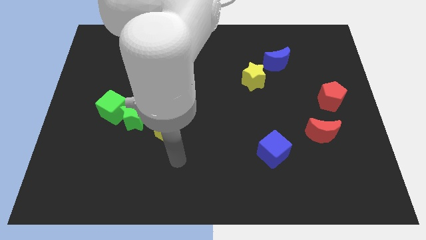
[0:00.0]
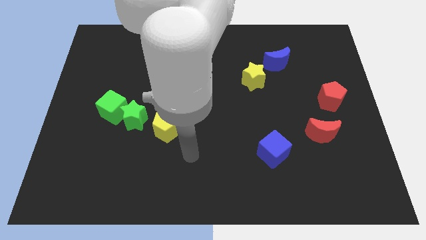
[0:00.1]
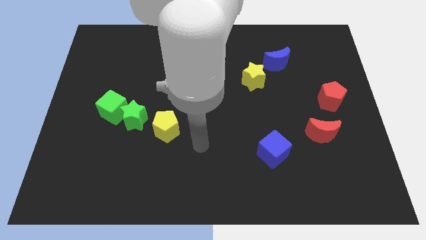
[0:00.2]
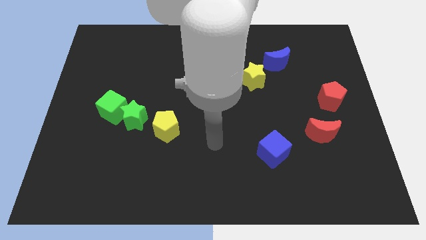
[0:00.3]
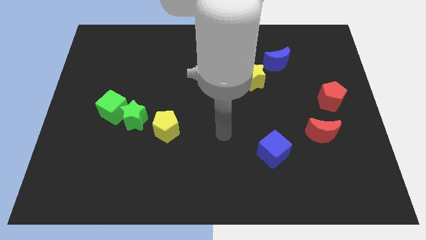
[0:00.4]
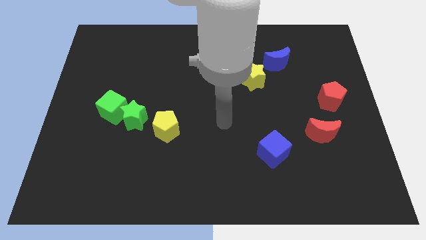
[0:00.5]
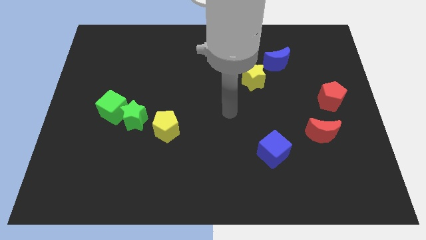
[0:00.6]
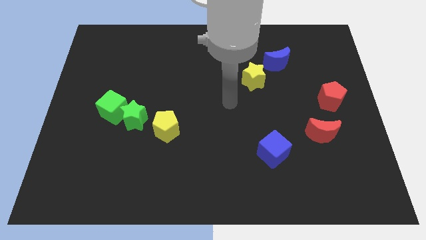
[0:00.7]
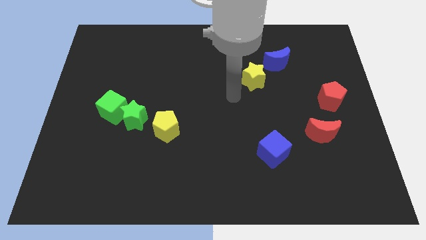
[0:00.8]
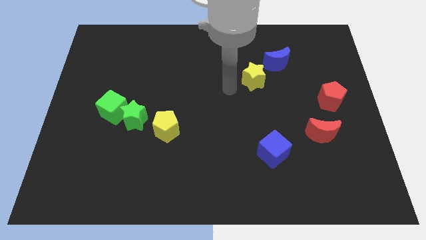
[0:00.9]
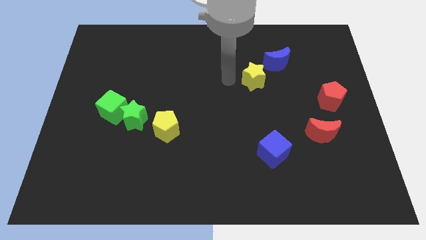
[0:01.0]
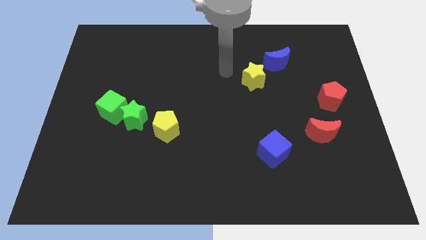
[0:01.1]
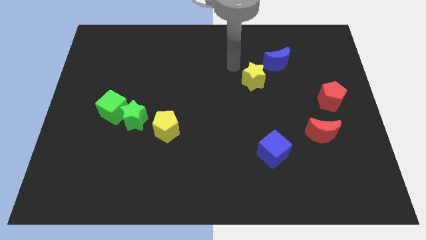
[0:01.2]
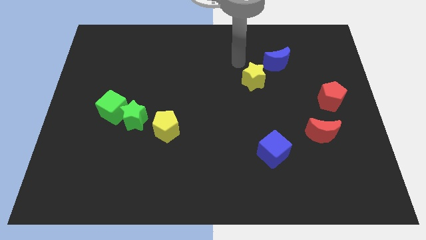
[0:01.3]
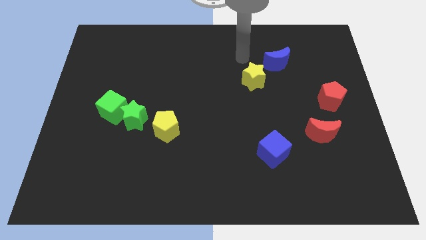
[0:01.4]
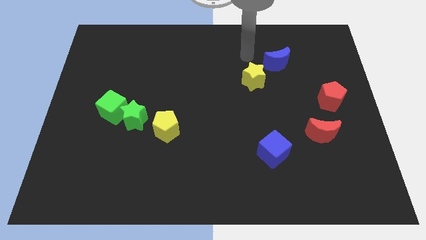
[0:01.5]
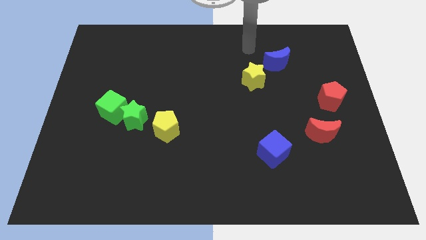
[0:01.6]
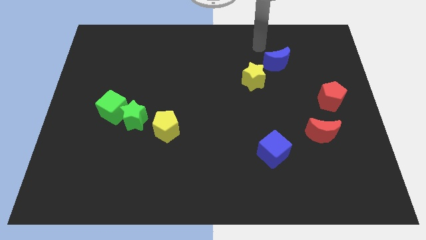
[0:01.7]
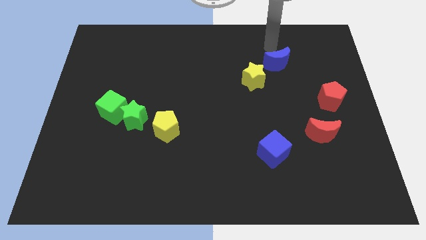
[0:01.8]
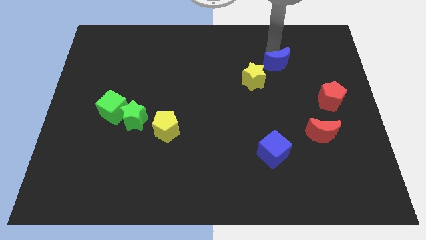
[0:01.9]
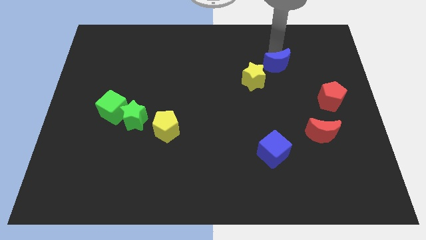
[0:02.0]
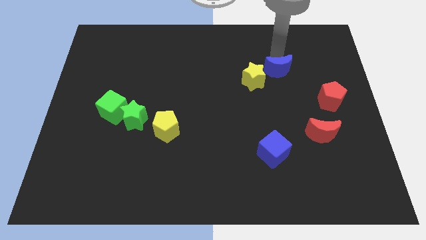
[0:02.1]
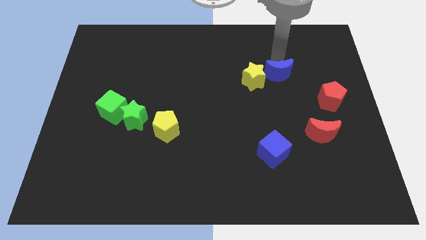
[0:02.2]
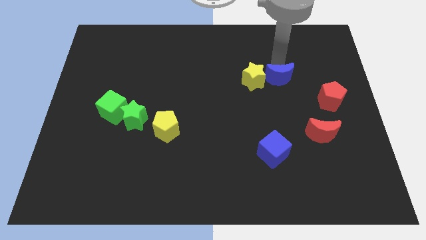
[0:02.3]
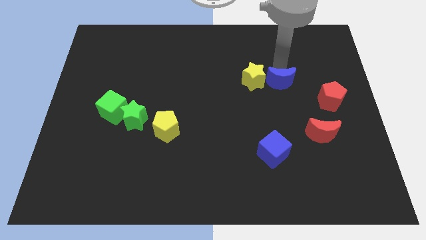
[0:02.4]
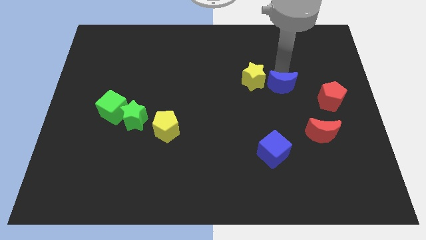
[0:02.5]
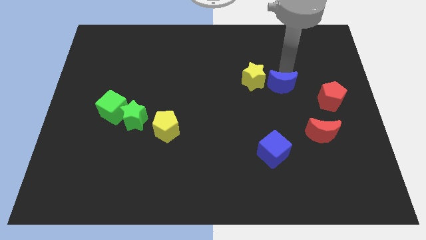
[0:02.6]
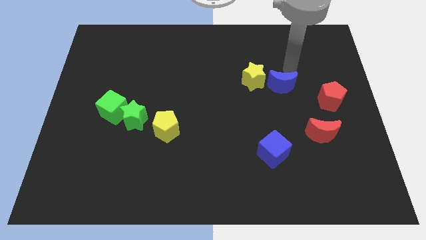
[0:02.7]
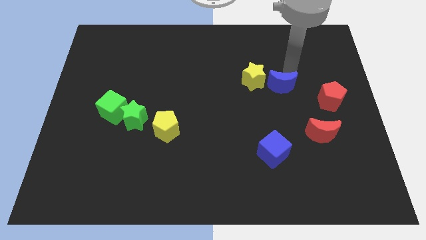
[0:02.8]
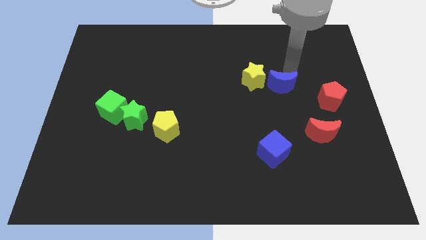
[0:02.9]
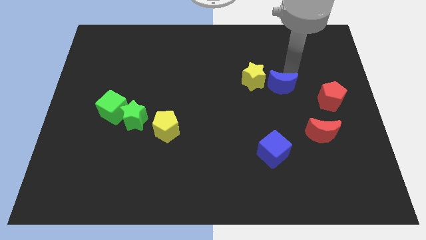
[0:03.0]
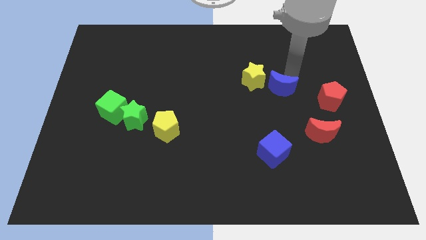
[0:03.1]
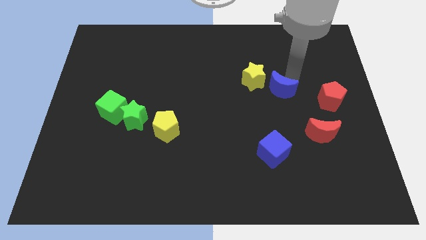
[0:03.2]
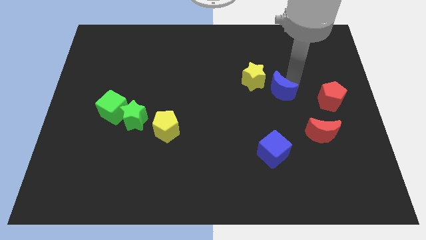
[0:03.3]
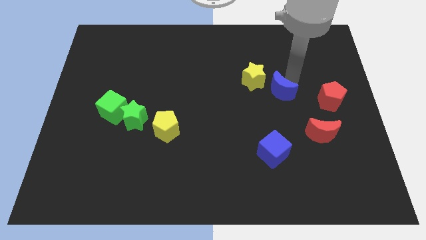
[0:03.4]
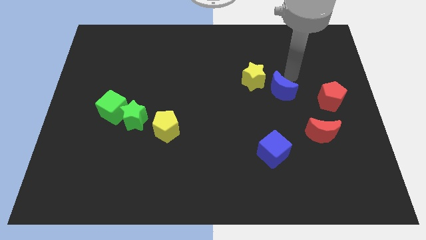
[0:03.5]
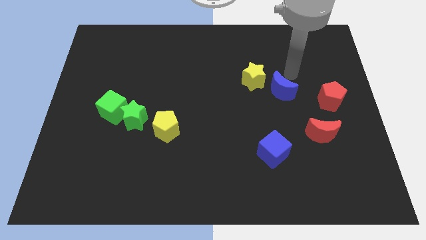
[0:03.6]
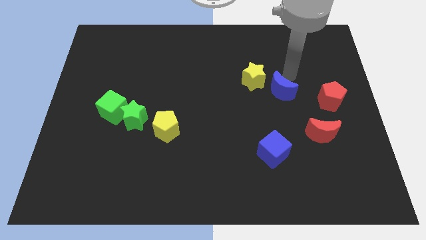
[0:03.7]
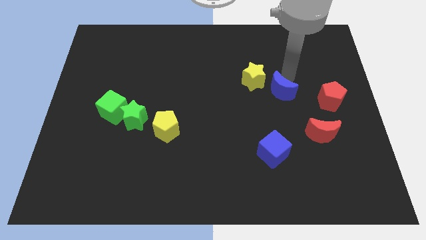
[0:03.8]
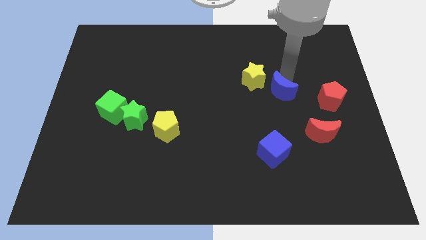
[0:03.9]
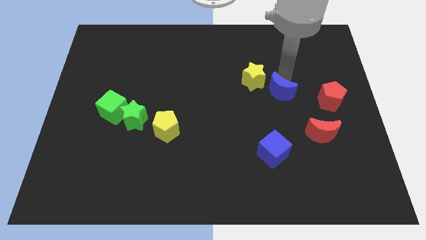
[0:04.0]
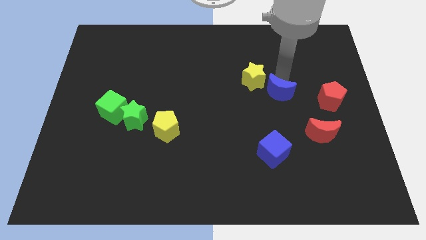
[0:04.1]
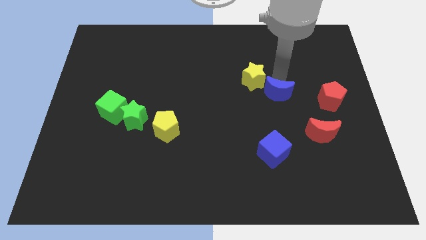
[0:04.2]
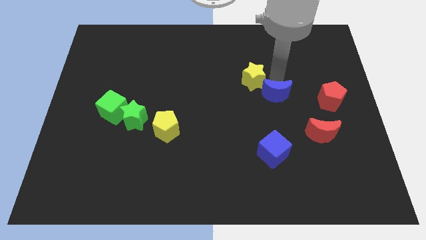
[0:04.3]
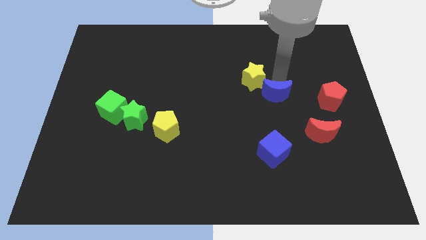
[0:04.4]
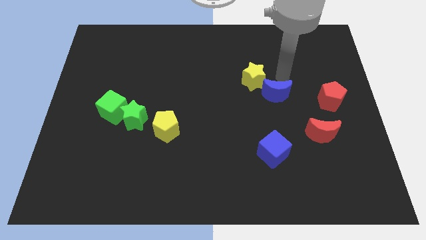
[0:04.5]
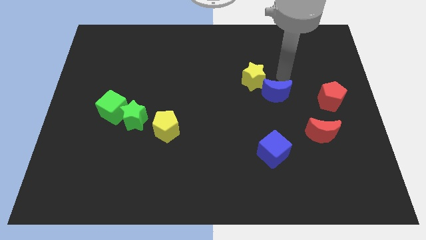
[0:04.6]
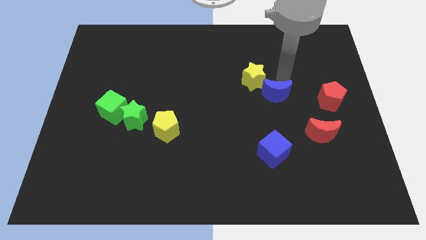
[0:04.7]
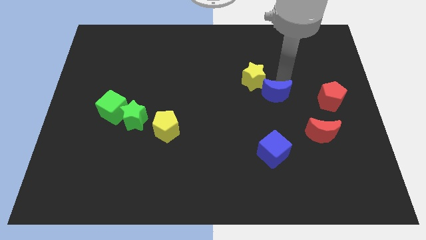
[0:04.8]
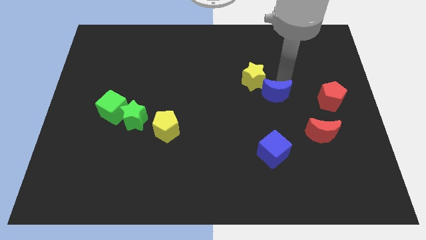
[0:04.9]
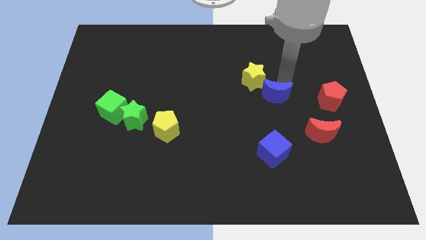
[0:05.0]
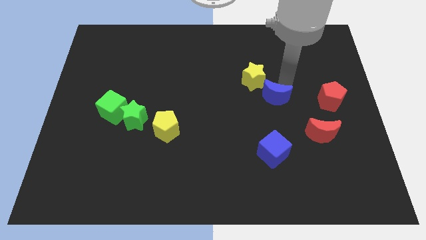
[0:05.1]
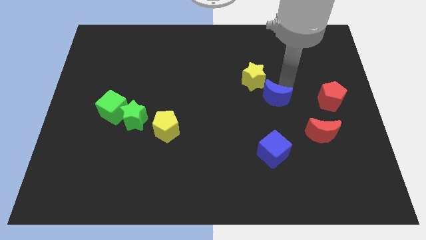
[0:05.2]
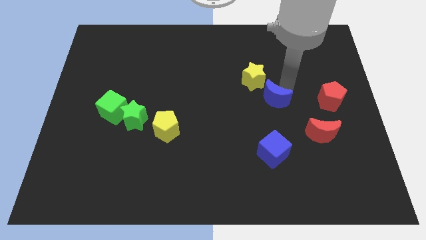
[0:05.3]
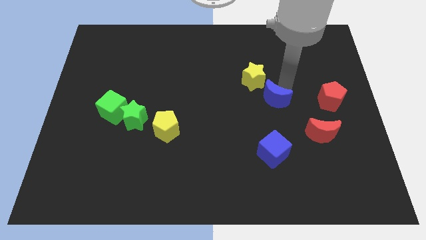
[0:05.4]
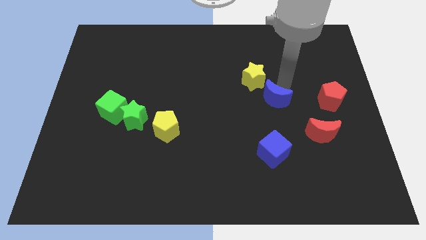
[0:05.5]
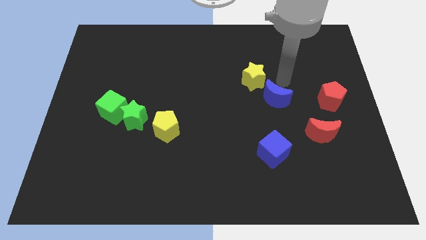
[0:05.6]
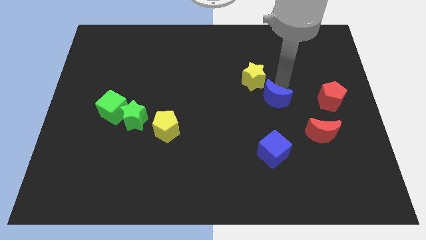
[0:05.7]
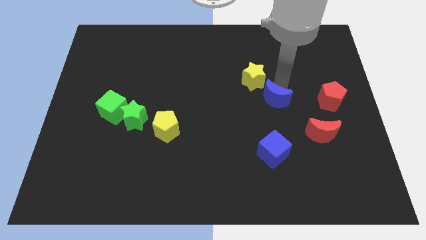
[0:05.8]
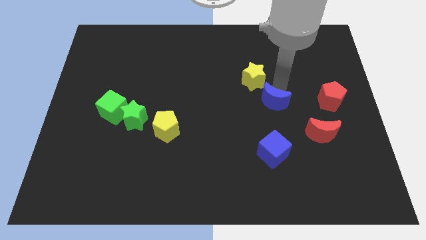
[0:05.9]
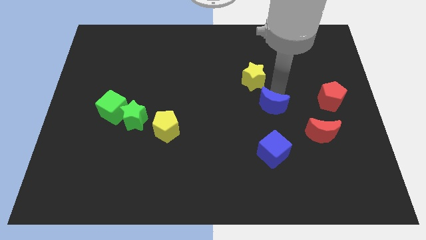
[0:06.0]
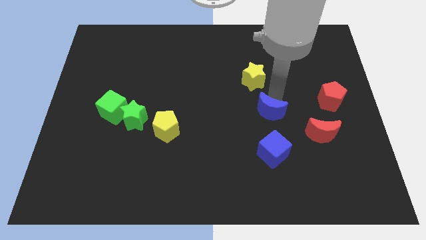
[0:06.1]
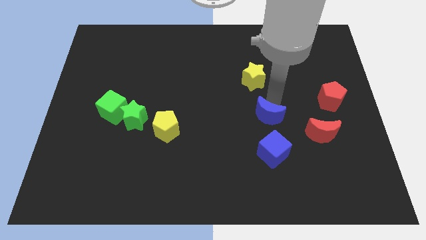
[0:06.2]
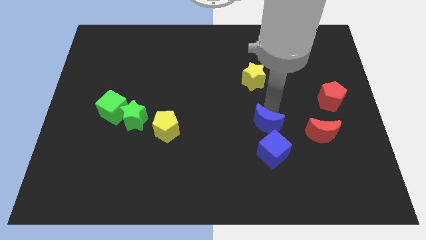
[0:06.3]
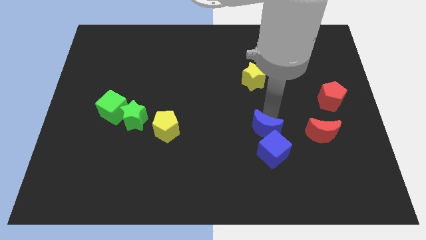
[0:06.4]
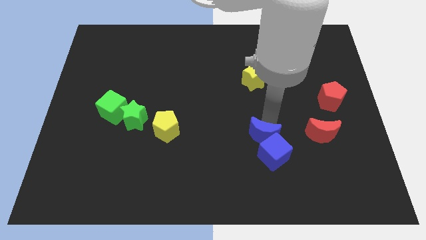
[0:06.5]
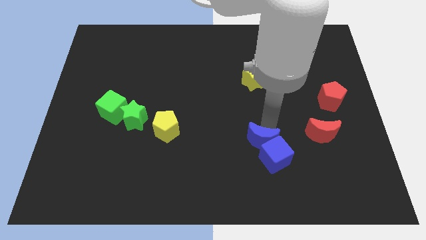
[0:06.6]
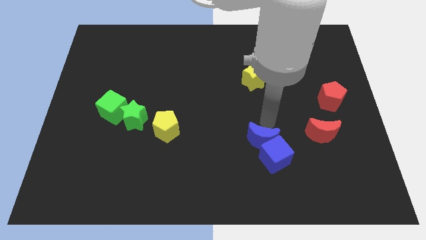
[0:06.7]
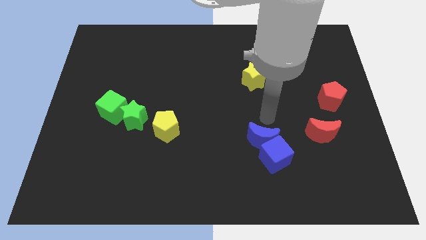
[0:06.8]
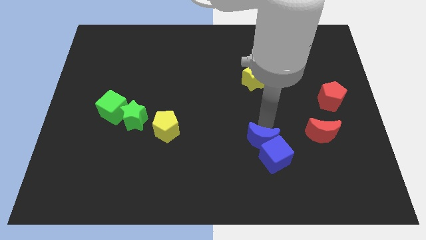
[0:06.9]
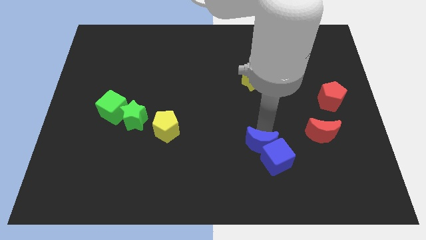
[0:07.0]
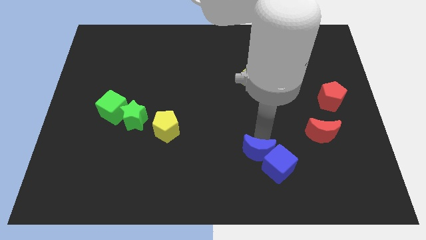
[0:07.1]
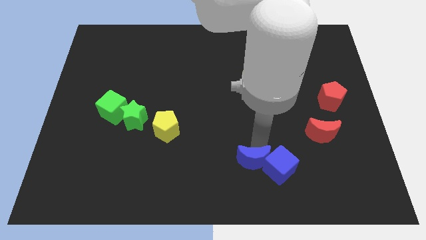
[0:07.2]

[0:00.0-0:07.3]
slide the blue moon diagonally down and to the left of the blue cube

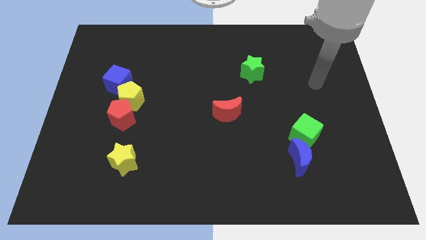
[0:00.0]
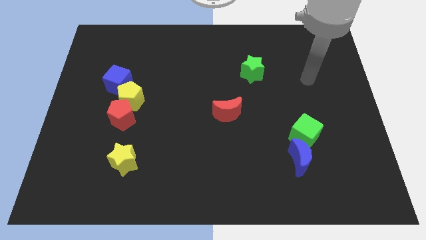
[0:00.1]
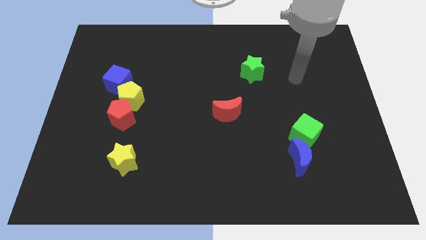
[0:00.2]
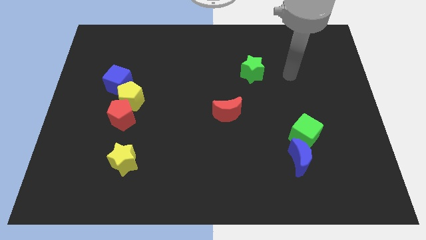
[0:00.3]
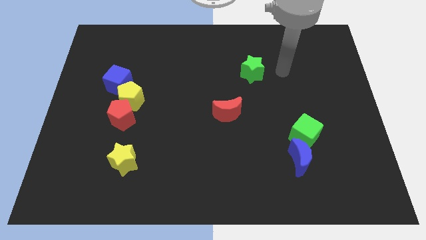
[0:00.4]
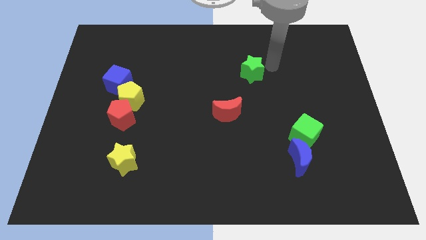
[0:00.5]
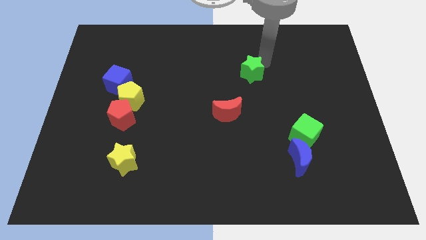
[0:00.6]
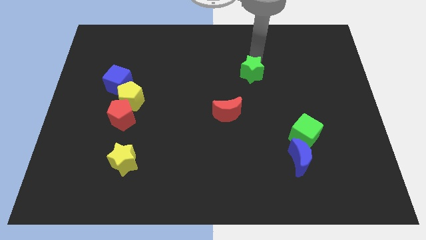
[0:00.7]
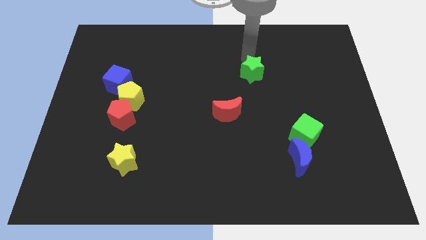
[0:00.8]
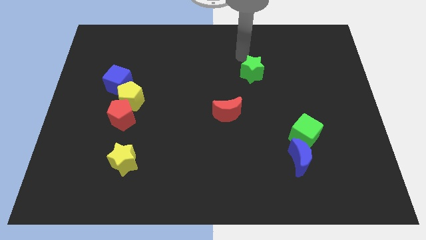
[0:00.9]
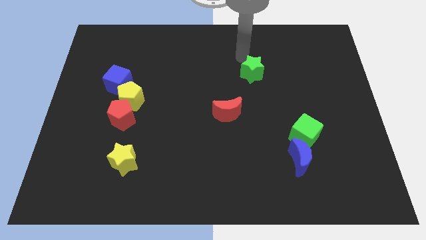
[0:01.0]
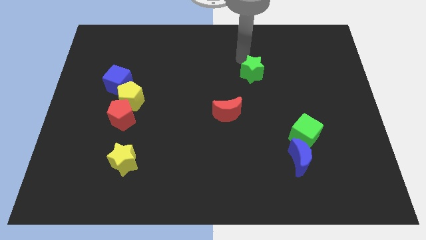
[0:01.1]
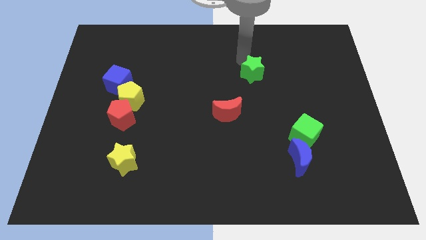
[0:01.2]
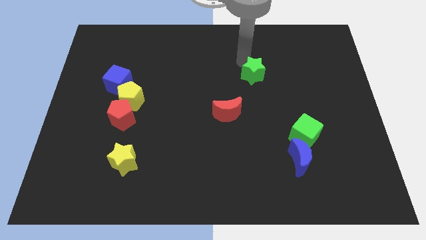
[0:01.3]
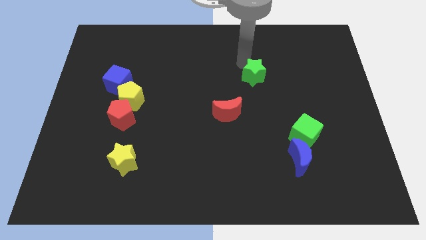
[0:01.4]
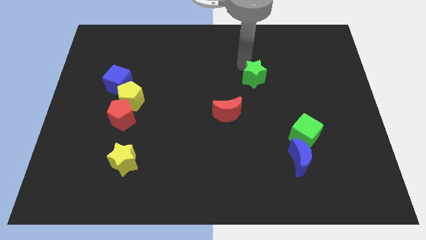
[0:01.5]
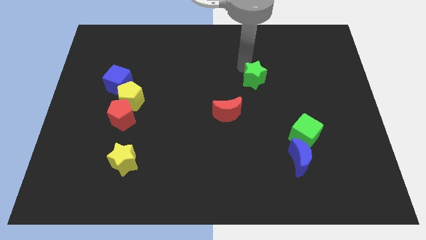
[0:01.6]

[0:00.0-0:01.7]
put the green star to the top right side of the red moon
